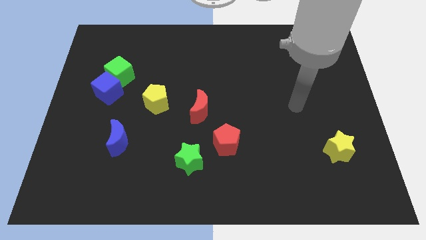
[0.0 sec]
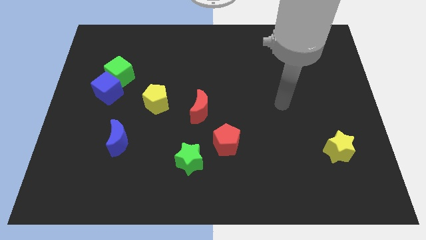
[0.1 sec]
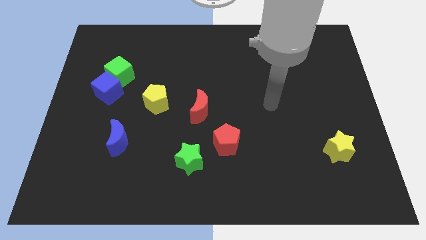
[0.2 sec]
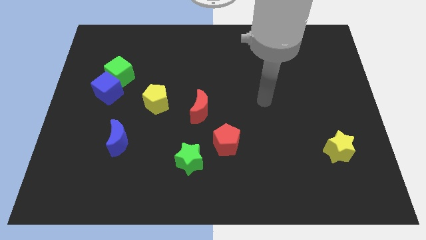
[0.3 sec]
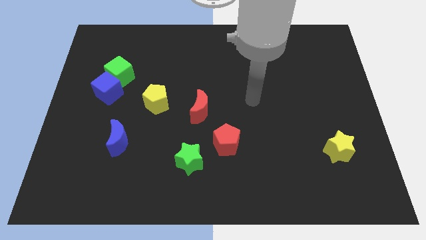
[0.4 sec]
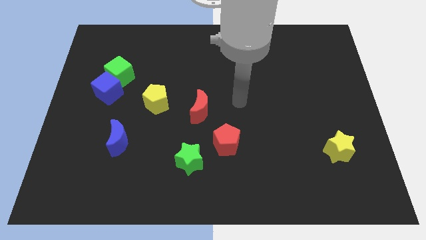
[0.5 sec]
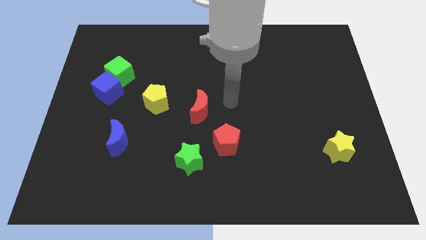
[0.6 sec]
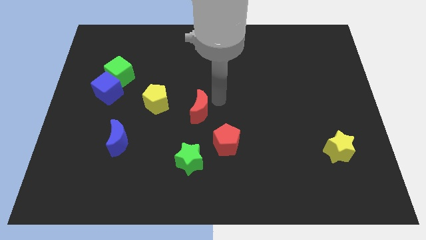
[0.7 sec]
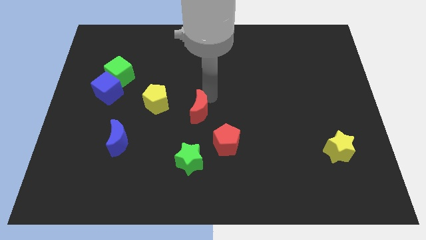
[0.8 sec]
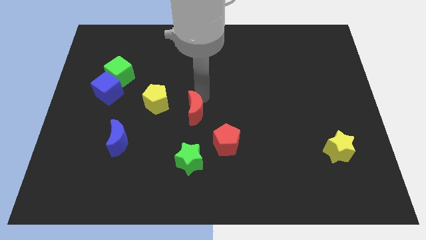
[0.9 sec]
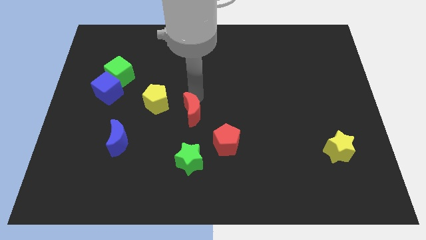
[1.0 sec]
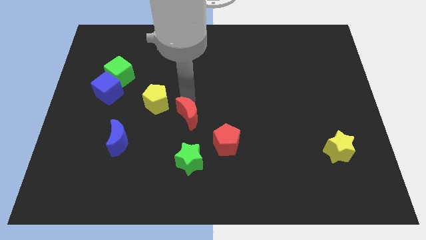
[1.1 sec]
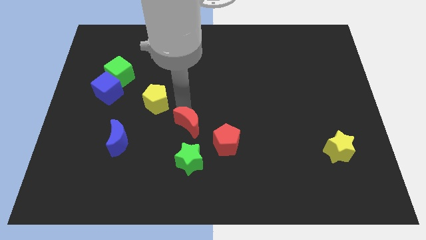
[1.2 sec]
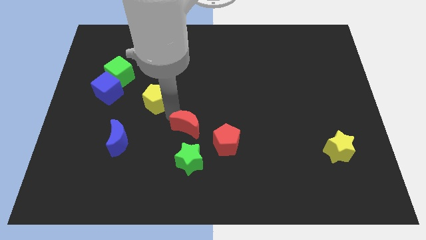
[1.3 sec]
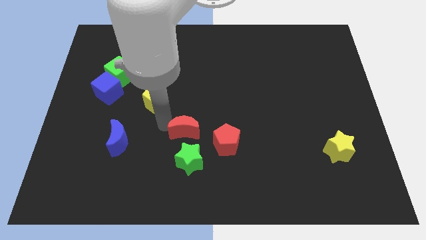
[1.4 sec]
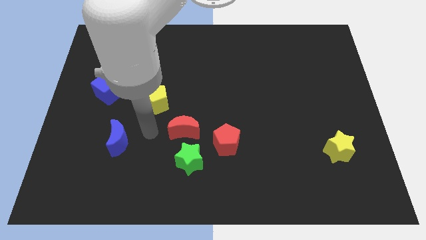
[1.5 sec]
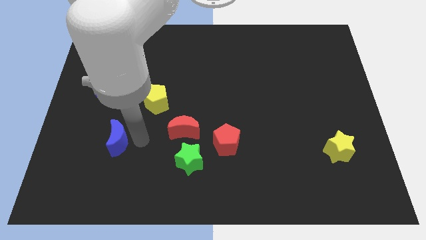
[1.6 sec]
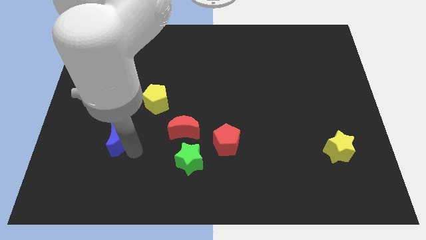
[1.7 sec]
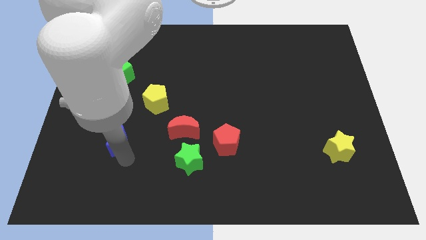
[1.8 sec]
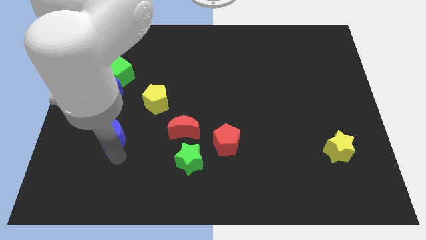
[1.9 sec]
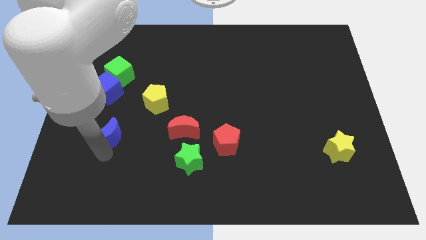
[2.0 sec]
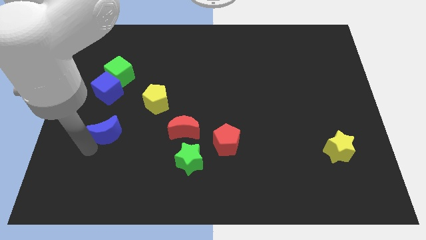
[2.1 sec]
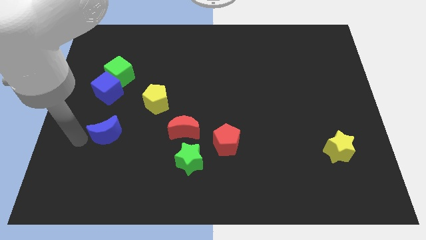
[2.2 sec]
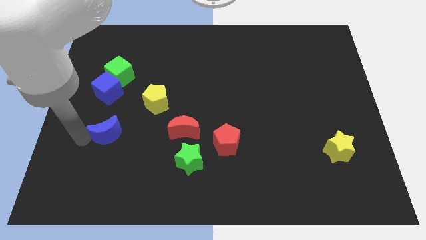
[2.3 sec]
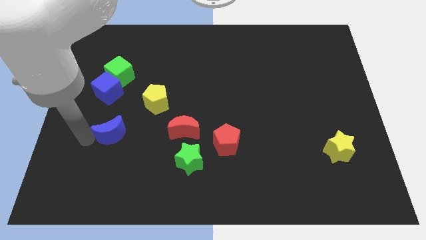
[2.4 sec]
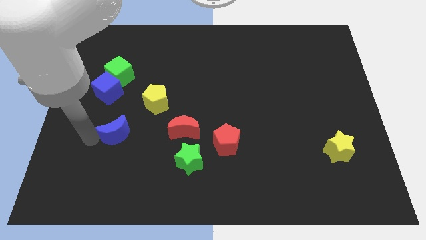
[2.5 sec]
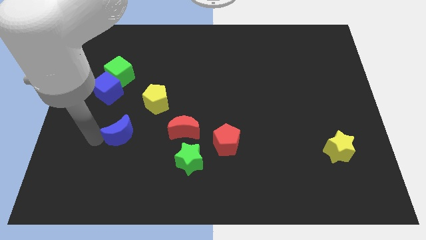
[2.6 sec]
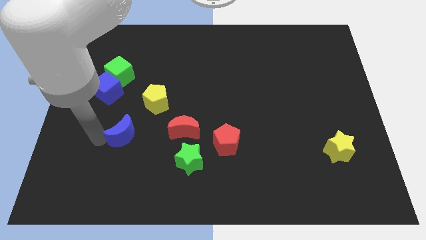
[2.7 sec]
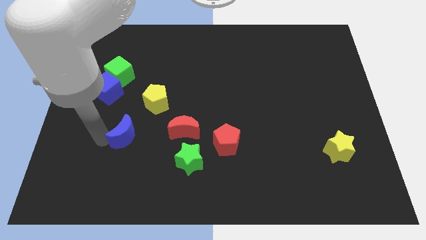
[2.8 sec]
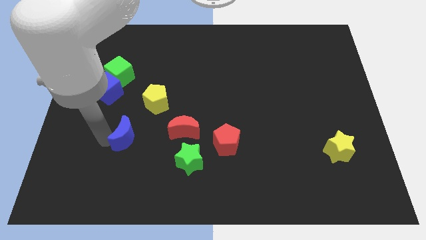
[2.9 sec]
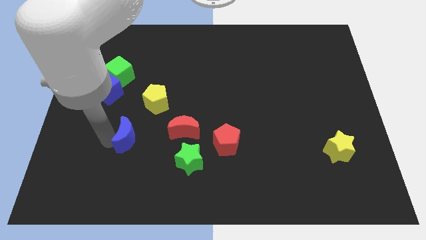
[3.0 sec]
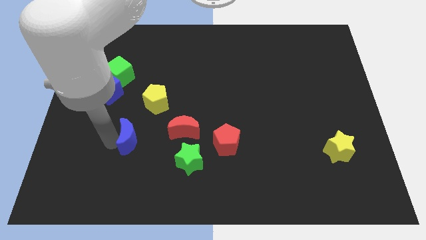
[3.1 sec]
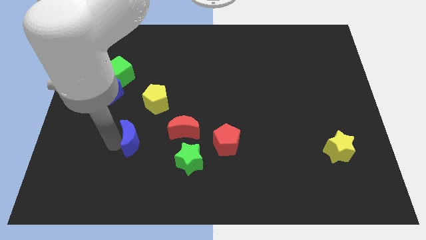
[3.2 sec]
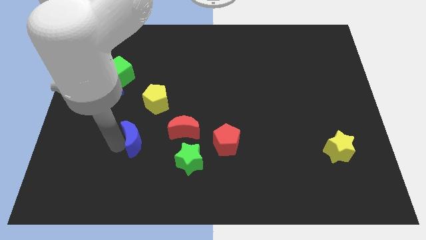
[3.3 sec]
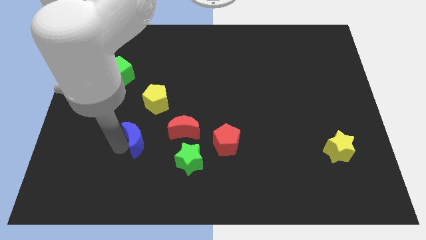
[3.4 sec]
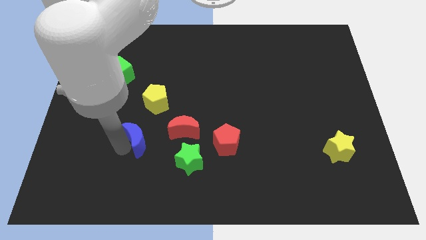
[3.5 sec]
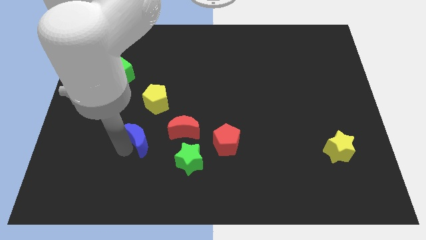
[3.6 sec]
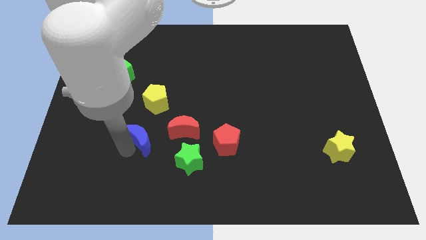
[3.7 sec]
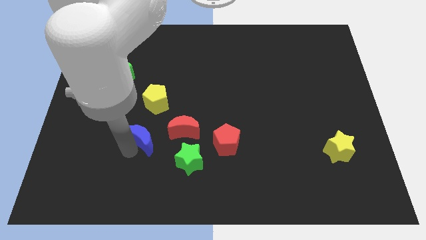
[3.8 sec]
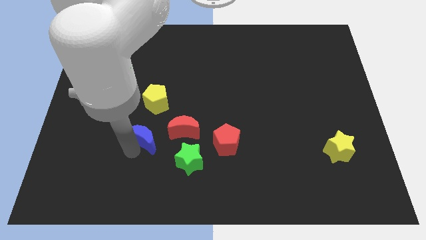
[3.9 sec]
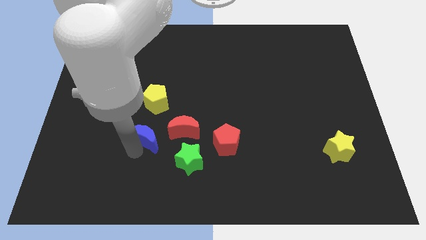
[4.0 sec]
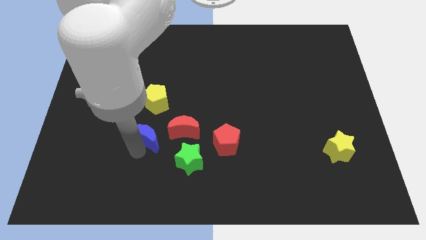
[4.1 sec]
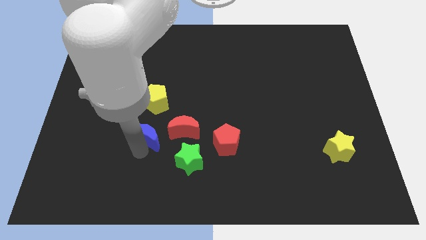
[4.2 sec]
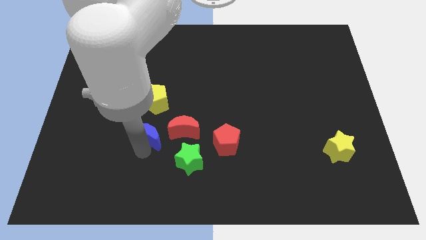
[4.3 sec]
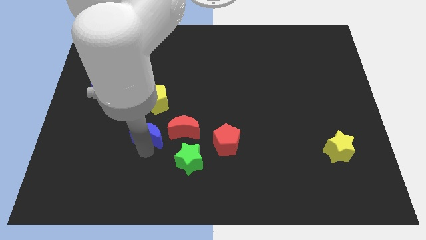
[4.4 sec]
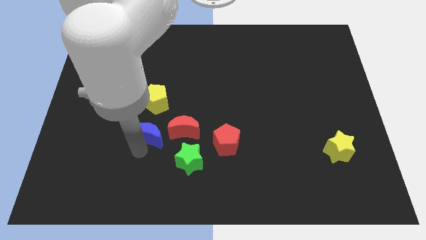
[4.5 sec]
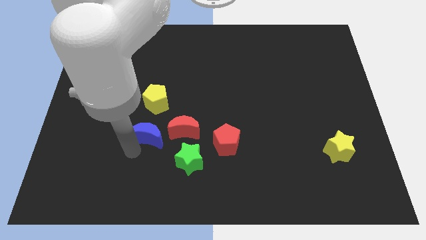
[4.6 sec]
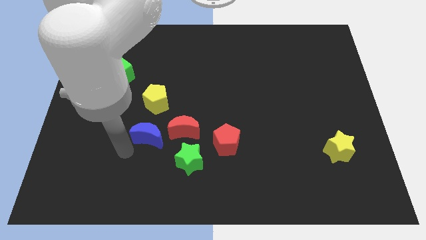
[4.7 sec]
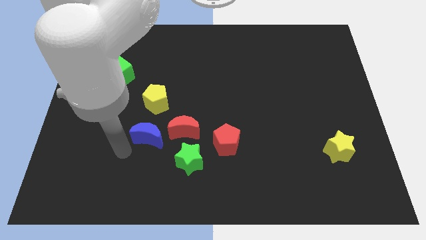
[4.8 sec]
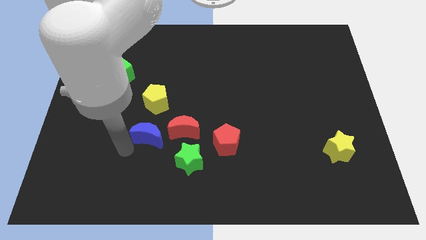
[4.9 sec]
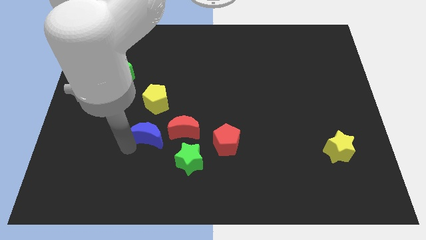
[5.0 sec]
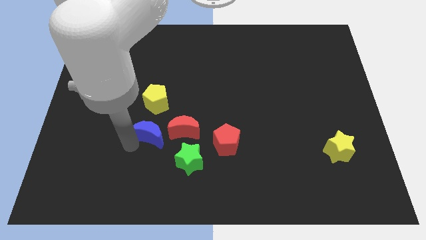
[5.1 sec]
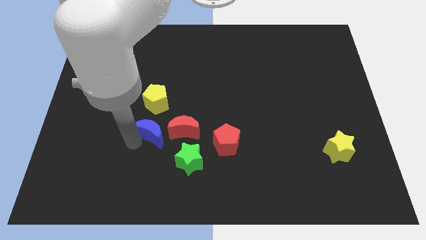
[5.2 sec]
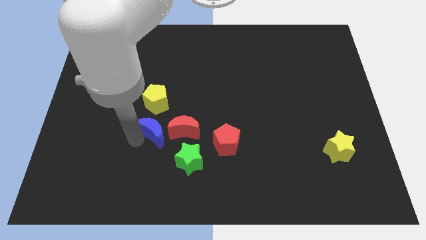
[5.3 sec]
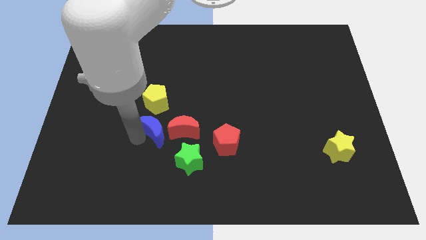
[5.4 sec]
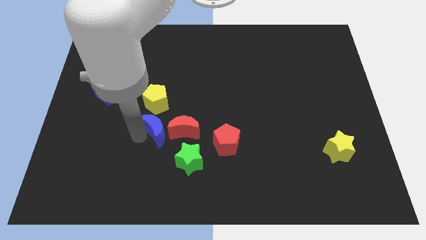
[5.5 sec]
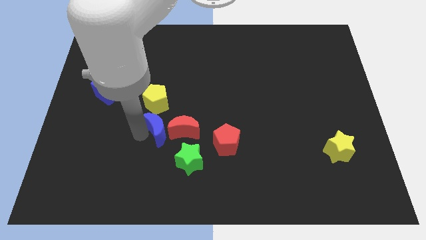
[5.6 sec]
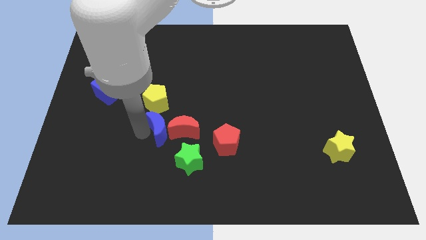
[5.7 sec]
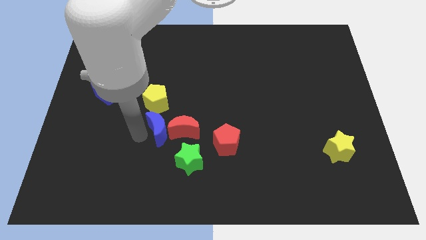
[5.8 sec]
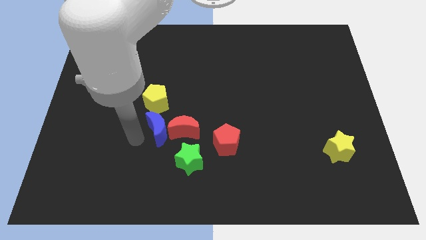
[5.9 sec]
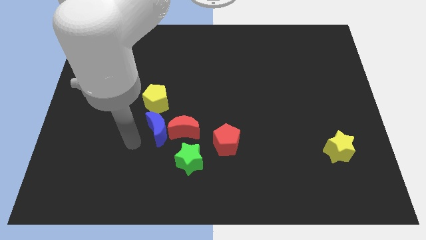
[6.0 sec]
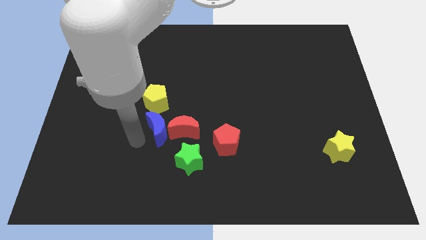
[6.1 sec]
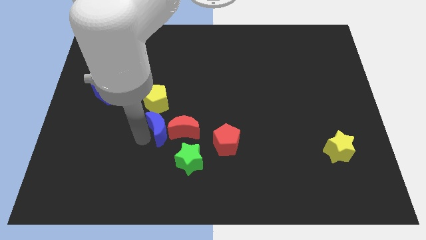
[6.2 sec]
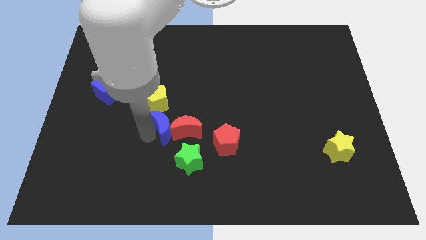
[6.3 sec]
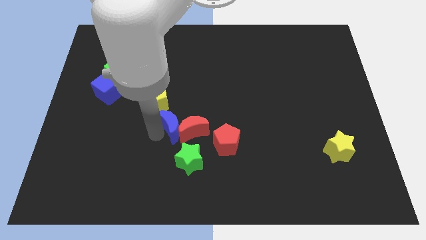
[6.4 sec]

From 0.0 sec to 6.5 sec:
push the blue moon to the middle

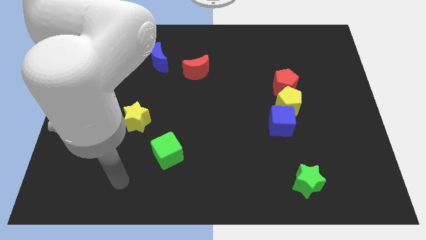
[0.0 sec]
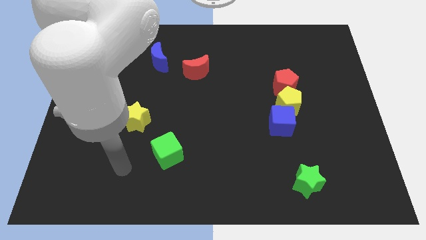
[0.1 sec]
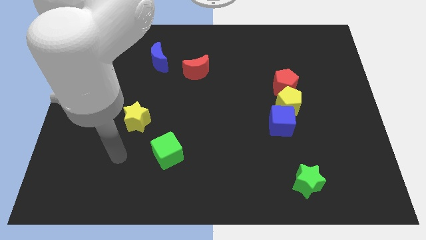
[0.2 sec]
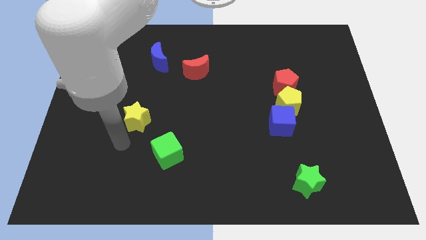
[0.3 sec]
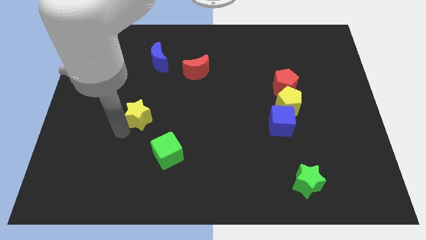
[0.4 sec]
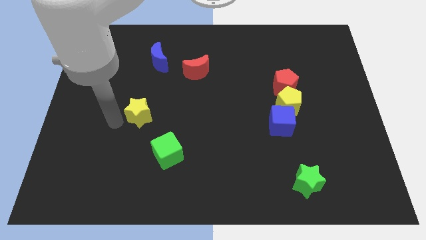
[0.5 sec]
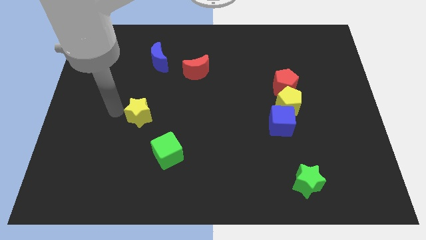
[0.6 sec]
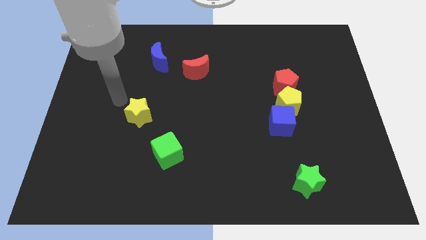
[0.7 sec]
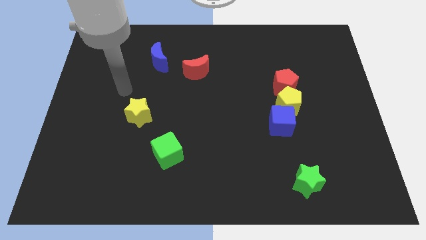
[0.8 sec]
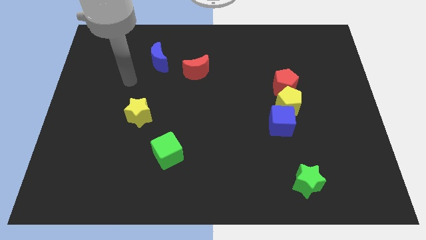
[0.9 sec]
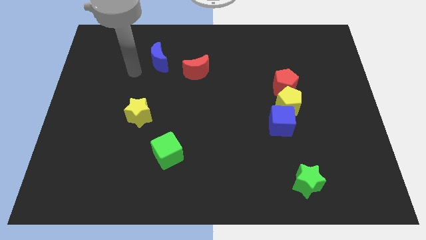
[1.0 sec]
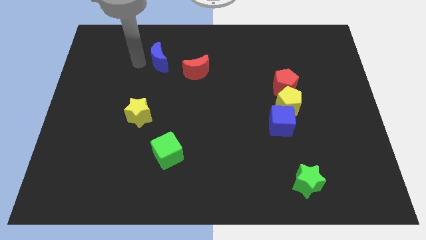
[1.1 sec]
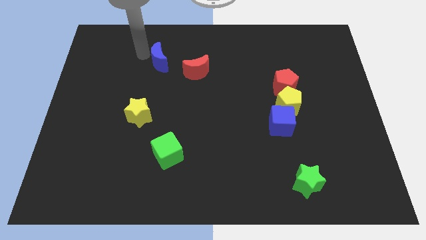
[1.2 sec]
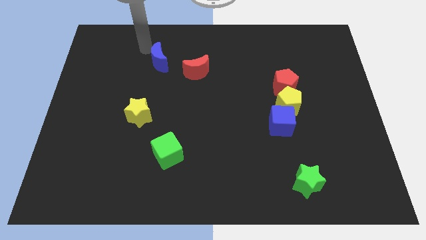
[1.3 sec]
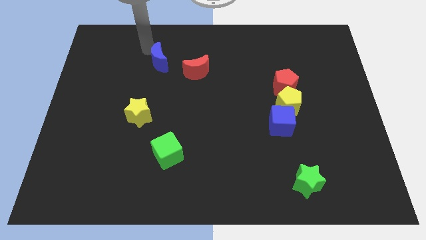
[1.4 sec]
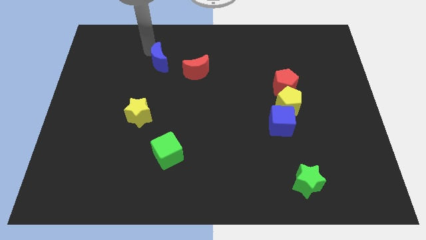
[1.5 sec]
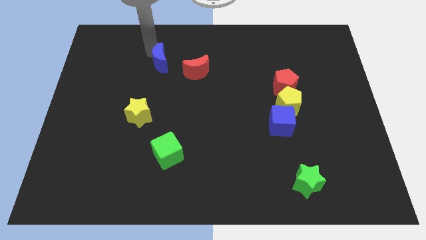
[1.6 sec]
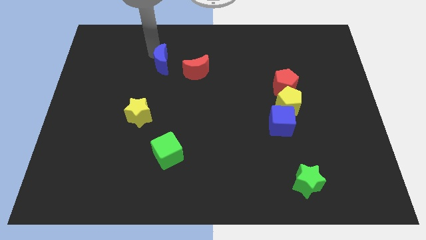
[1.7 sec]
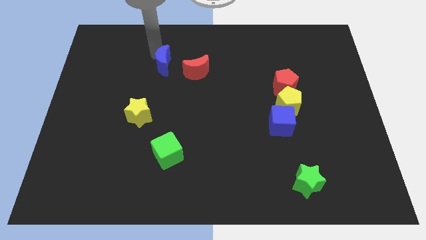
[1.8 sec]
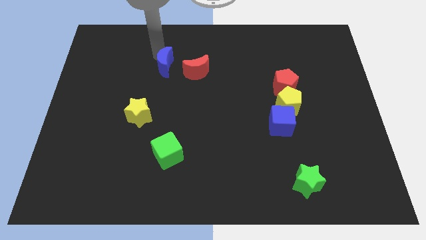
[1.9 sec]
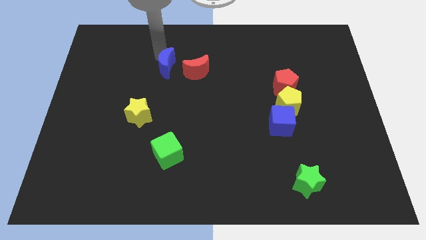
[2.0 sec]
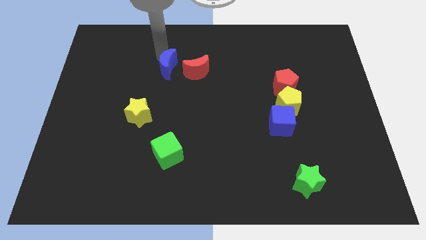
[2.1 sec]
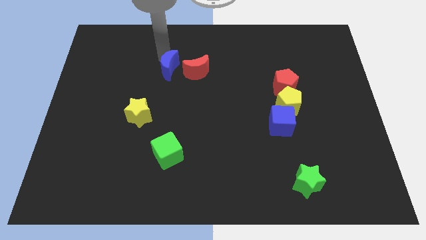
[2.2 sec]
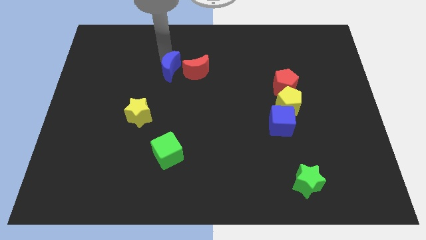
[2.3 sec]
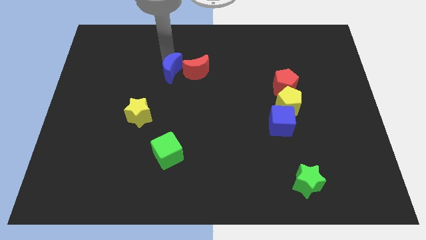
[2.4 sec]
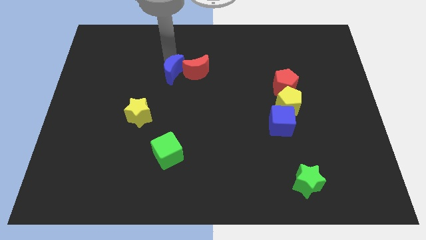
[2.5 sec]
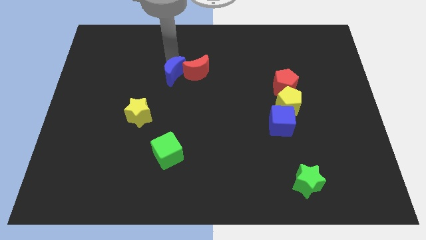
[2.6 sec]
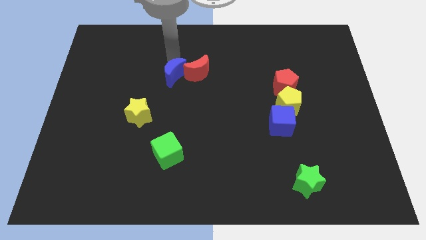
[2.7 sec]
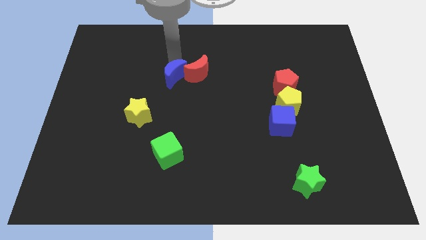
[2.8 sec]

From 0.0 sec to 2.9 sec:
put the blue moon to the middle of the board
